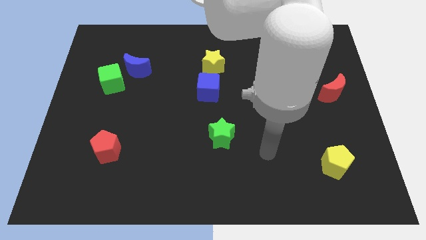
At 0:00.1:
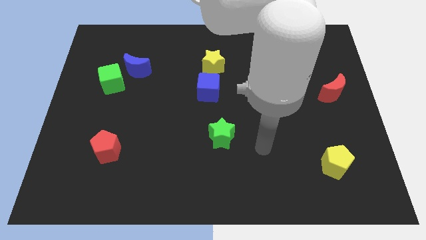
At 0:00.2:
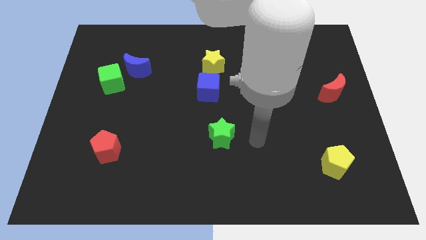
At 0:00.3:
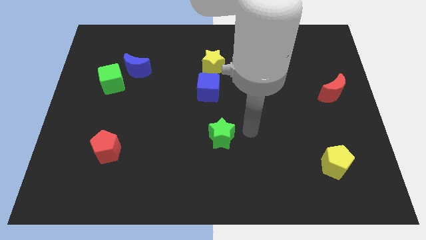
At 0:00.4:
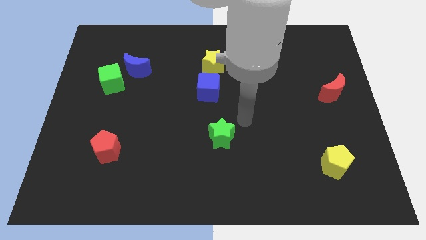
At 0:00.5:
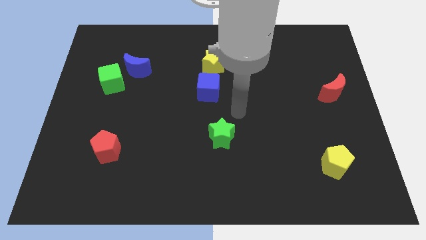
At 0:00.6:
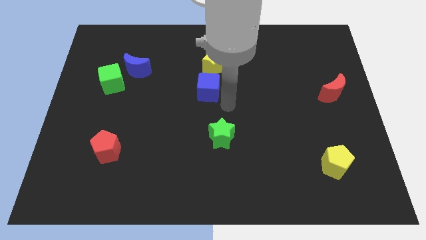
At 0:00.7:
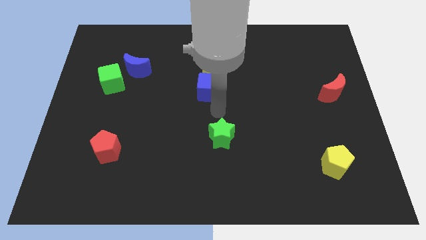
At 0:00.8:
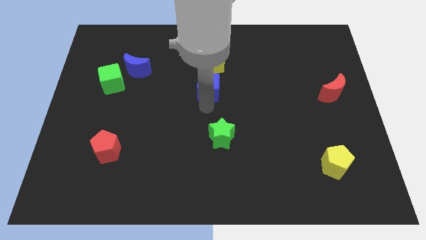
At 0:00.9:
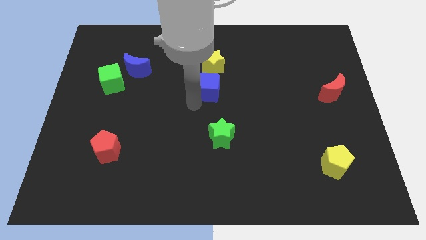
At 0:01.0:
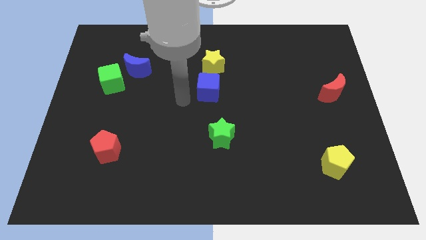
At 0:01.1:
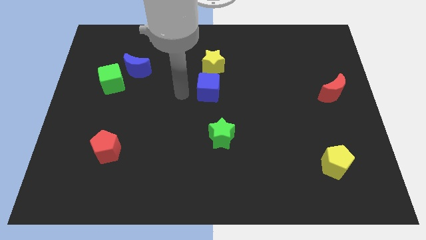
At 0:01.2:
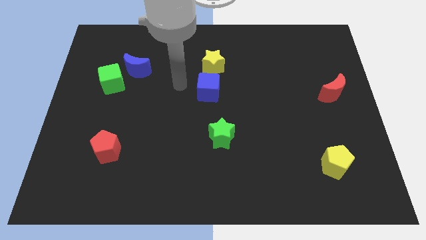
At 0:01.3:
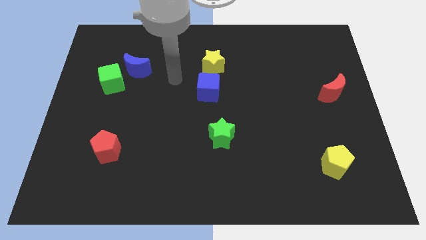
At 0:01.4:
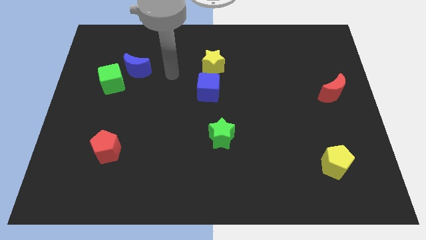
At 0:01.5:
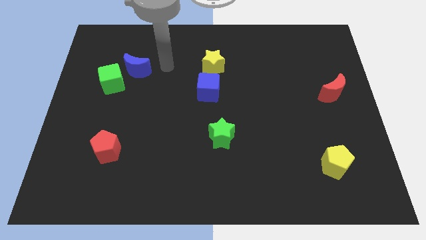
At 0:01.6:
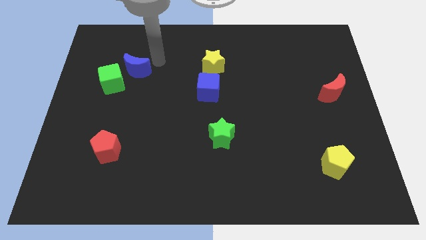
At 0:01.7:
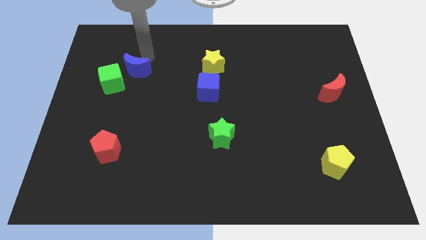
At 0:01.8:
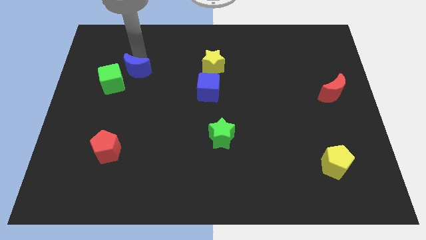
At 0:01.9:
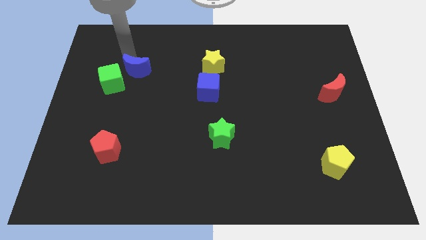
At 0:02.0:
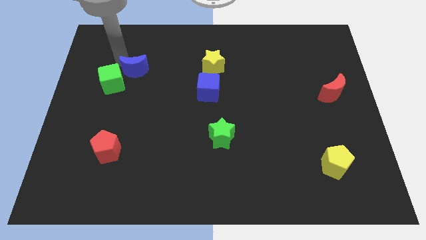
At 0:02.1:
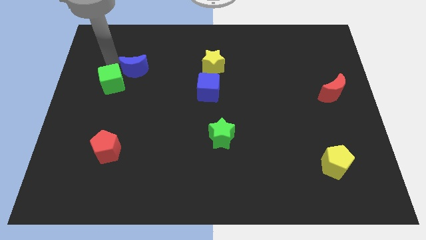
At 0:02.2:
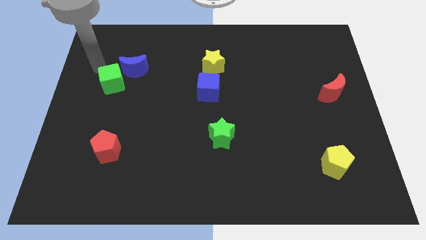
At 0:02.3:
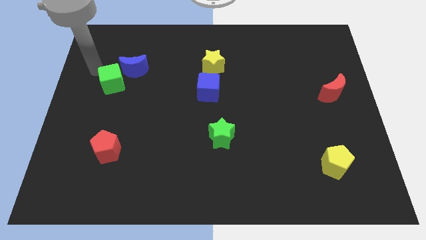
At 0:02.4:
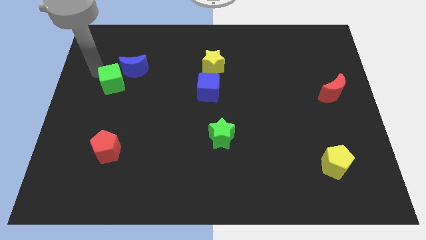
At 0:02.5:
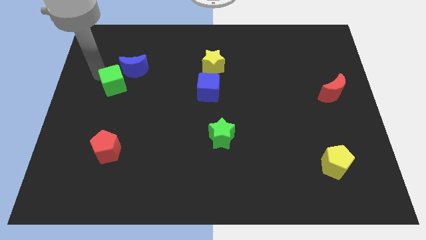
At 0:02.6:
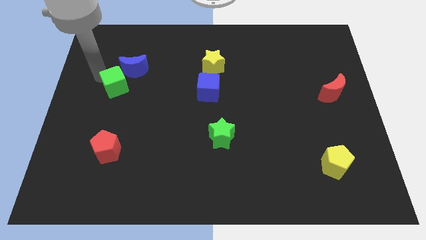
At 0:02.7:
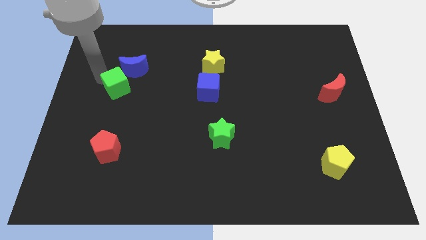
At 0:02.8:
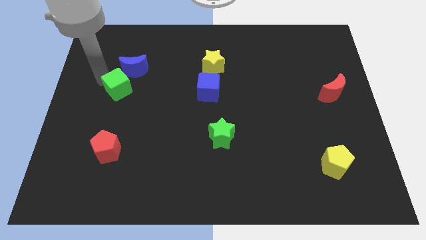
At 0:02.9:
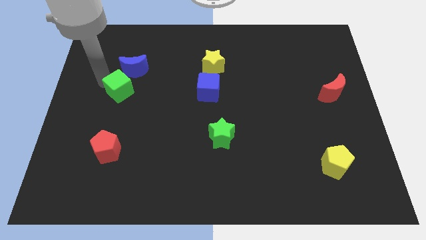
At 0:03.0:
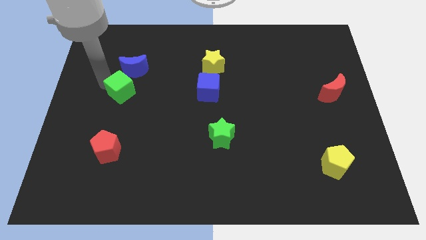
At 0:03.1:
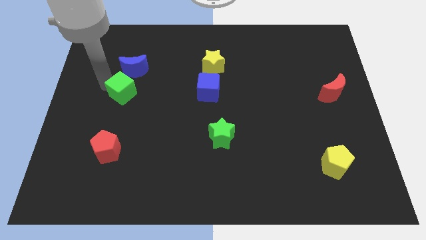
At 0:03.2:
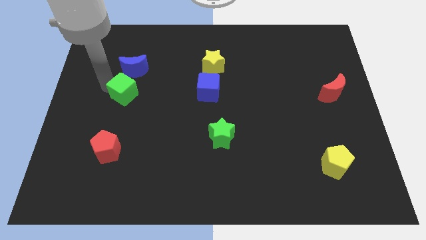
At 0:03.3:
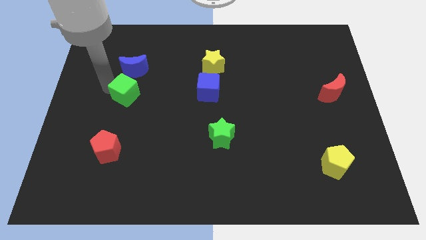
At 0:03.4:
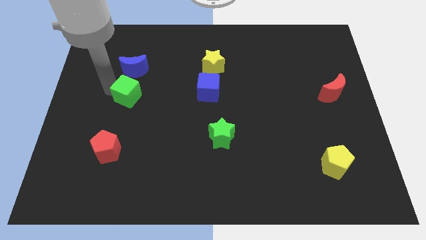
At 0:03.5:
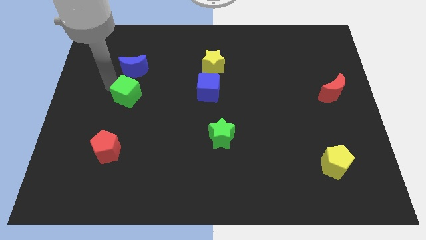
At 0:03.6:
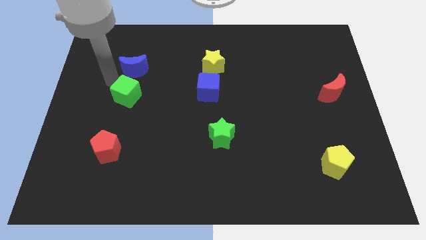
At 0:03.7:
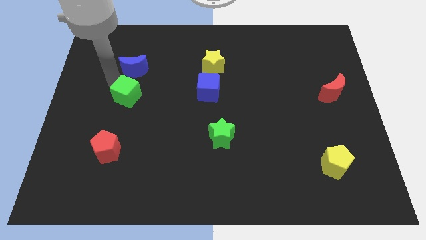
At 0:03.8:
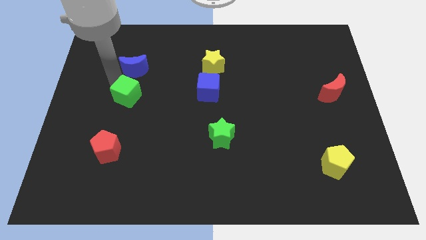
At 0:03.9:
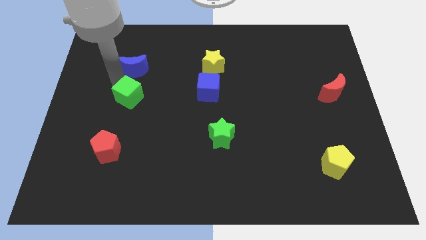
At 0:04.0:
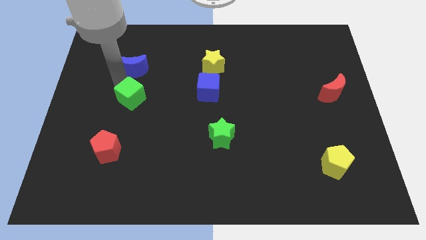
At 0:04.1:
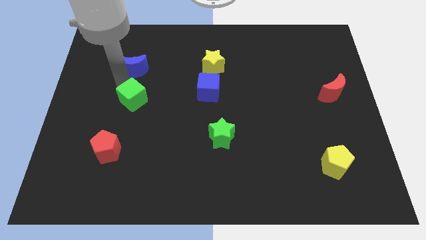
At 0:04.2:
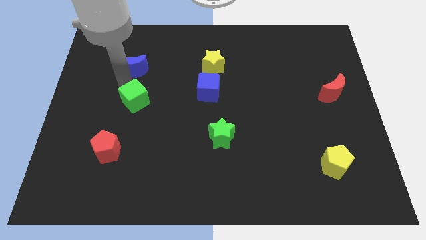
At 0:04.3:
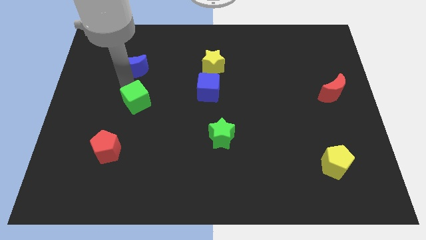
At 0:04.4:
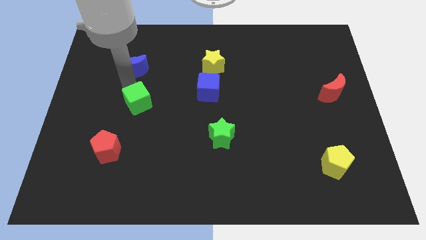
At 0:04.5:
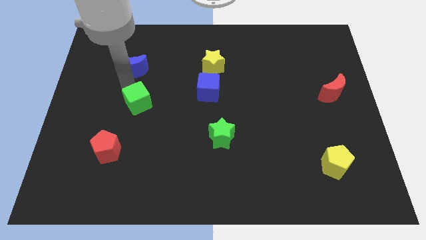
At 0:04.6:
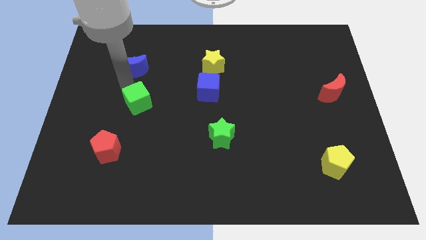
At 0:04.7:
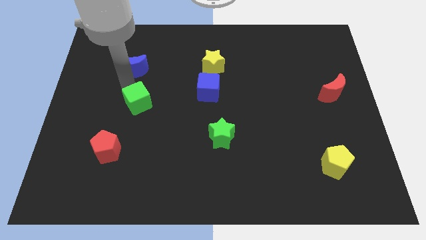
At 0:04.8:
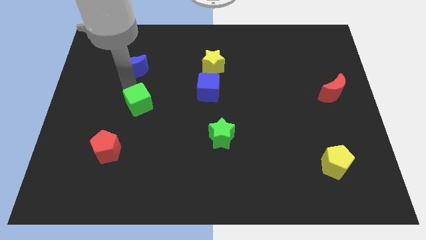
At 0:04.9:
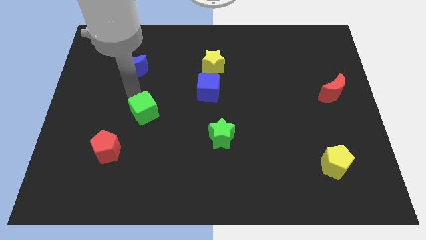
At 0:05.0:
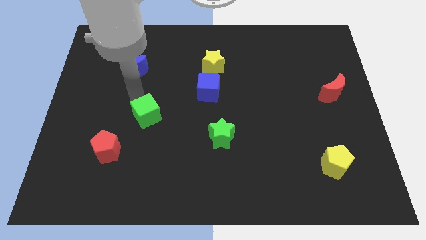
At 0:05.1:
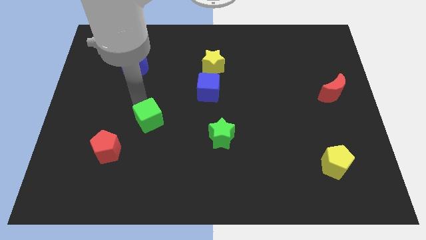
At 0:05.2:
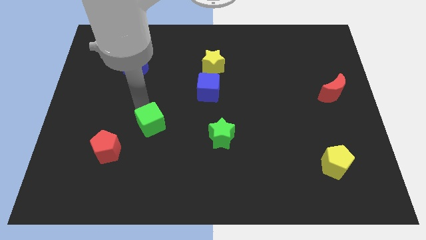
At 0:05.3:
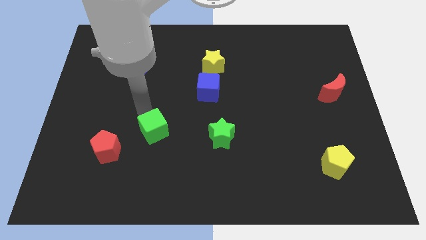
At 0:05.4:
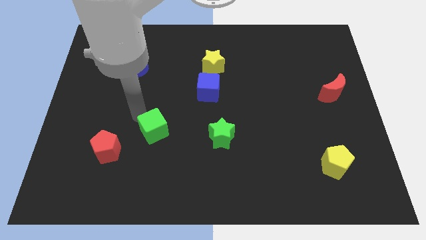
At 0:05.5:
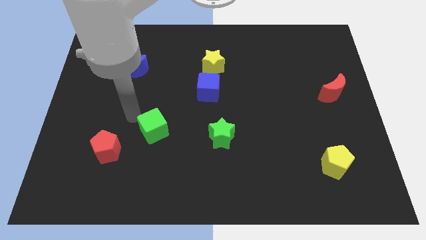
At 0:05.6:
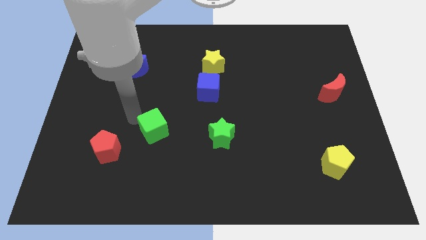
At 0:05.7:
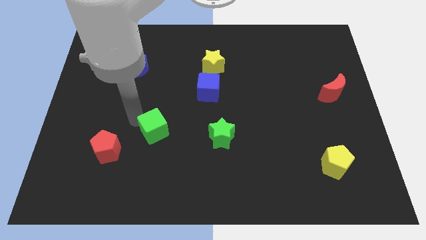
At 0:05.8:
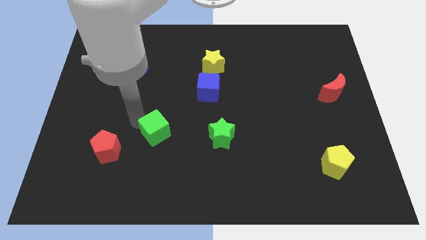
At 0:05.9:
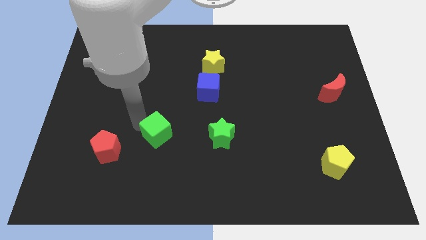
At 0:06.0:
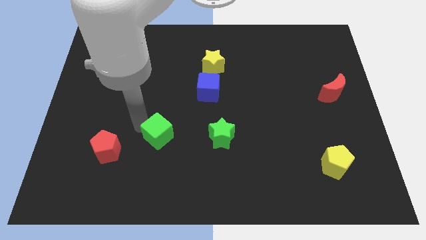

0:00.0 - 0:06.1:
push the green cube down and then to the right

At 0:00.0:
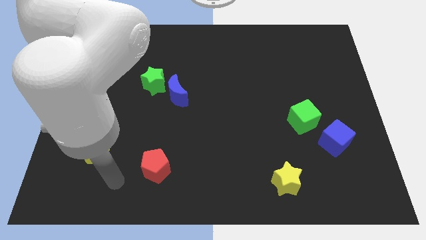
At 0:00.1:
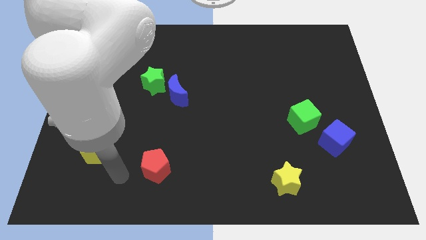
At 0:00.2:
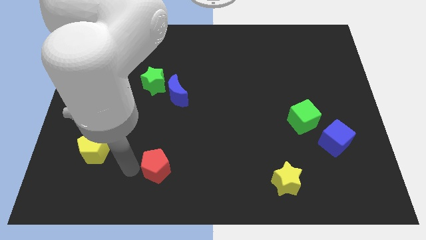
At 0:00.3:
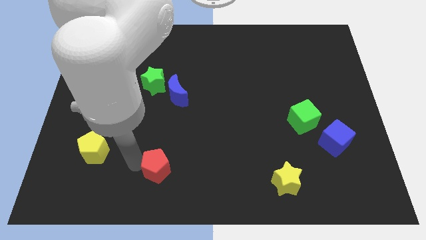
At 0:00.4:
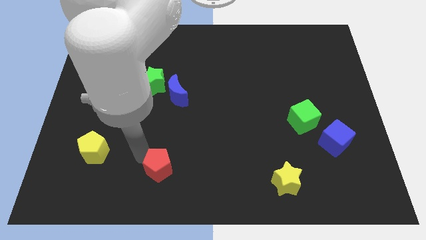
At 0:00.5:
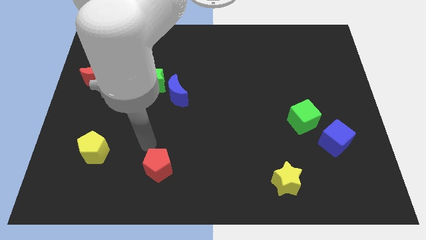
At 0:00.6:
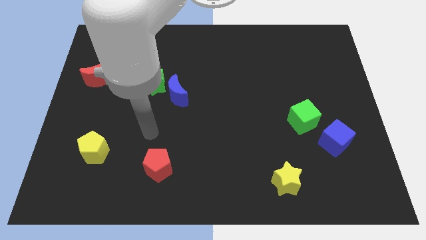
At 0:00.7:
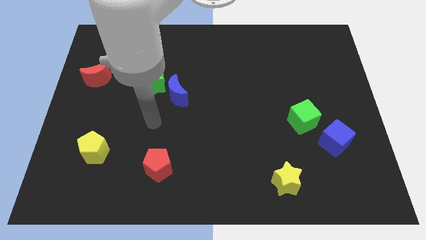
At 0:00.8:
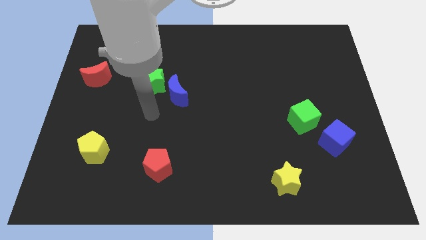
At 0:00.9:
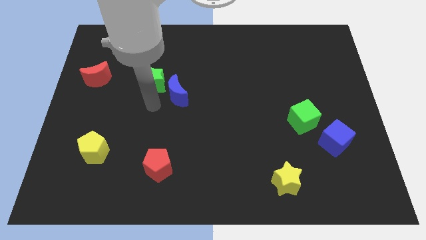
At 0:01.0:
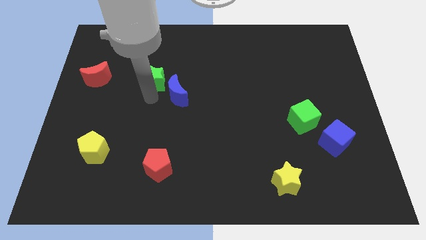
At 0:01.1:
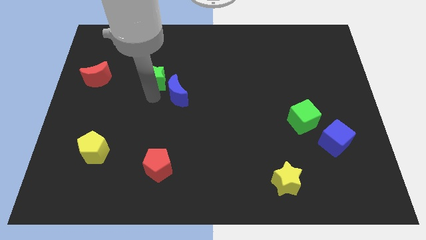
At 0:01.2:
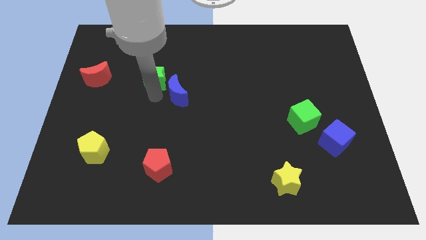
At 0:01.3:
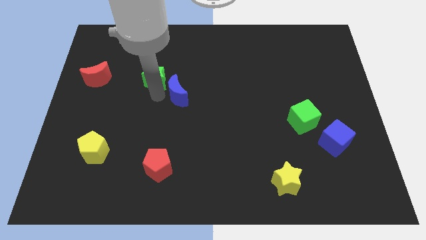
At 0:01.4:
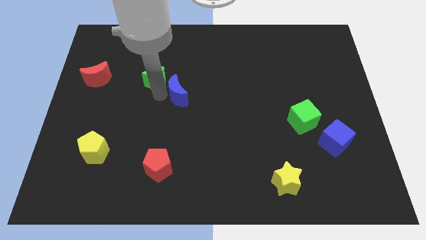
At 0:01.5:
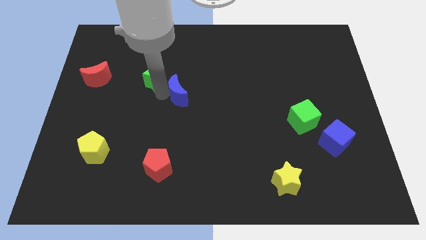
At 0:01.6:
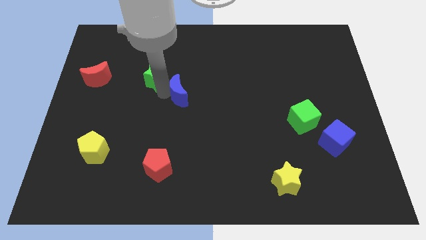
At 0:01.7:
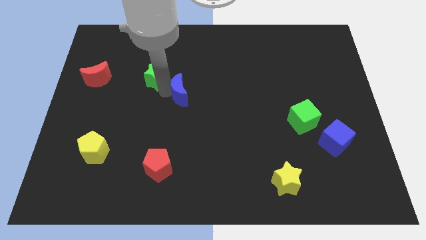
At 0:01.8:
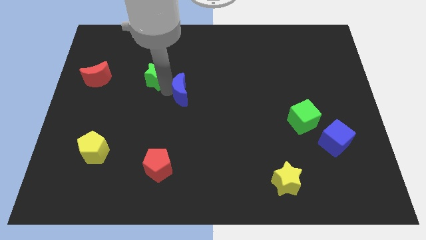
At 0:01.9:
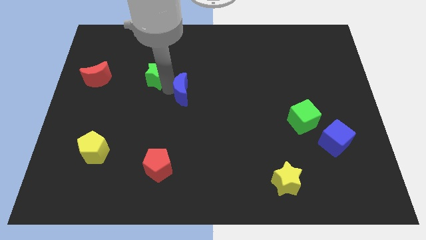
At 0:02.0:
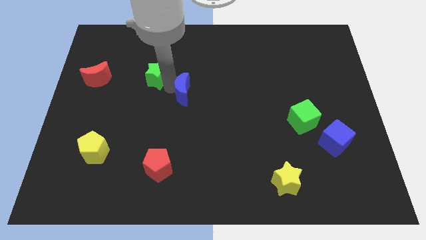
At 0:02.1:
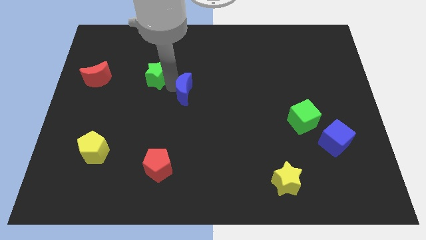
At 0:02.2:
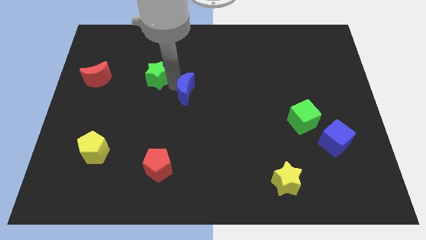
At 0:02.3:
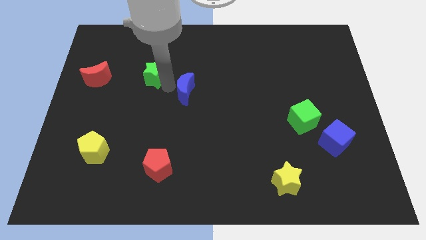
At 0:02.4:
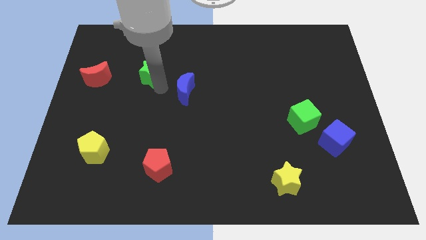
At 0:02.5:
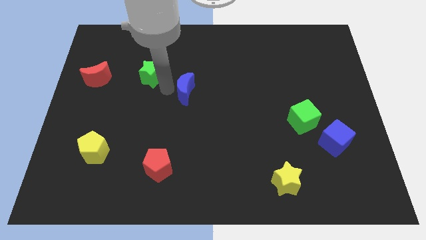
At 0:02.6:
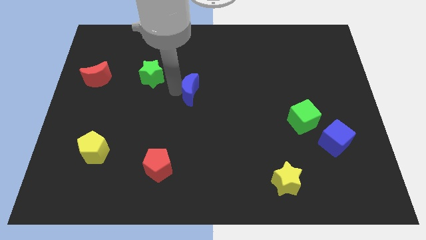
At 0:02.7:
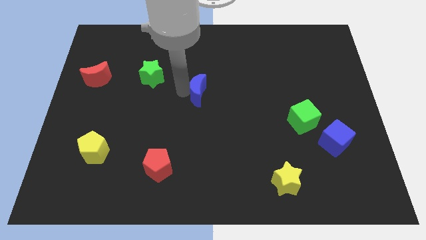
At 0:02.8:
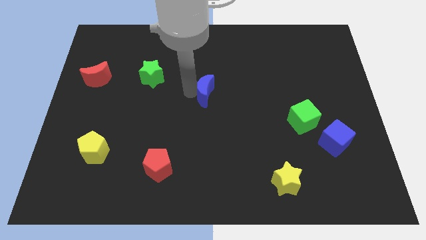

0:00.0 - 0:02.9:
slightly push the blue moon to the right
